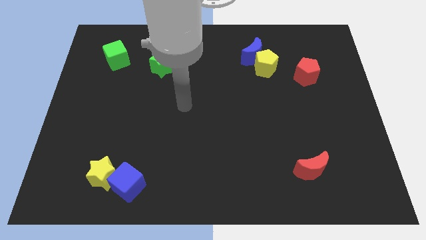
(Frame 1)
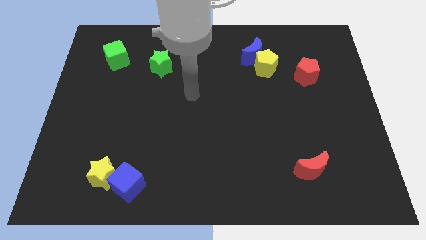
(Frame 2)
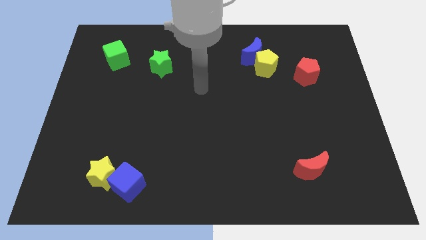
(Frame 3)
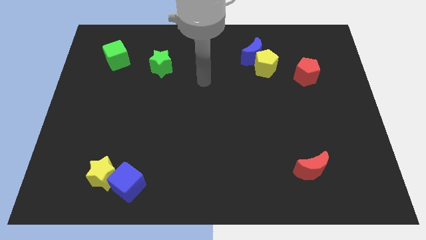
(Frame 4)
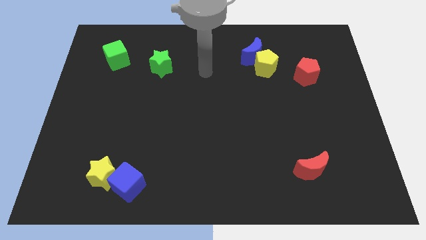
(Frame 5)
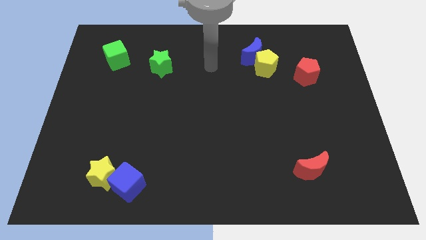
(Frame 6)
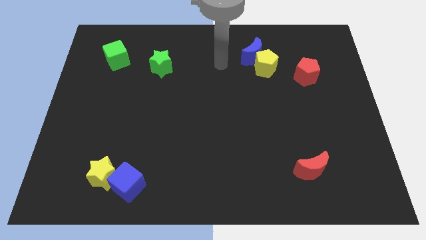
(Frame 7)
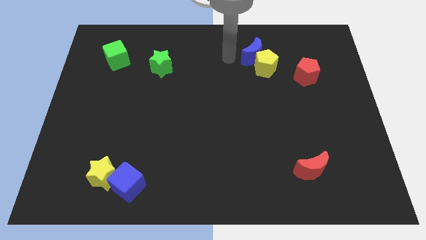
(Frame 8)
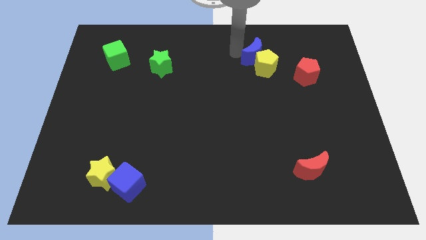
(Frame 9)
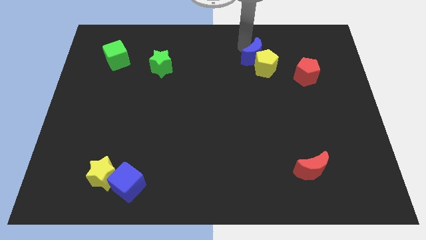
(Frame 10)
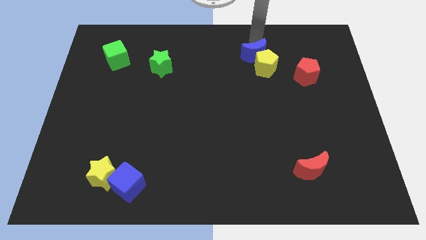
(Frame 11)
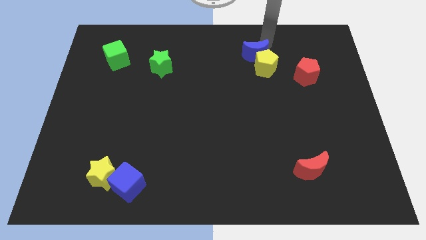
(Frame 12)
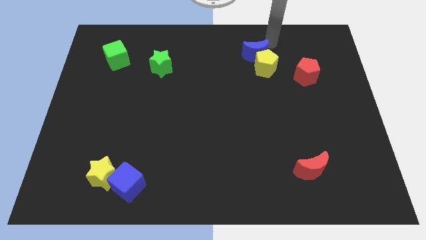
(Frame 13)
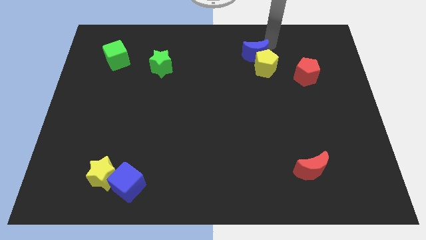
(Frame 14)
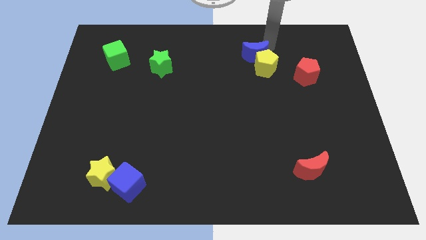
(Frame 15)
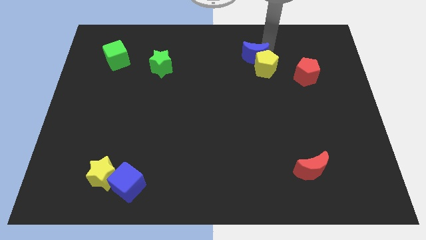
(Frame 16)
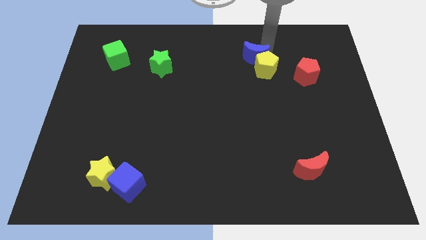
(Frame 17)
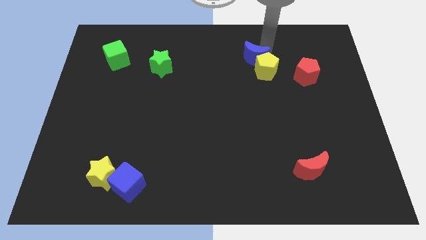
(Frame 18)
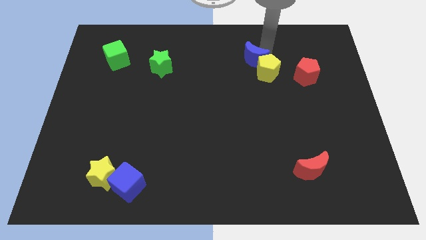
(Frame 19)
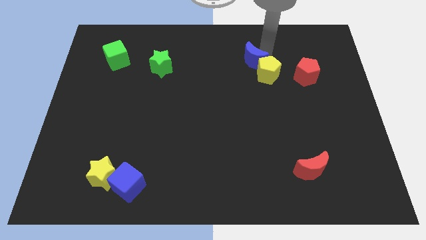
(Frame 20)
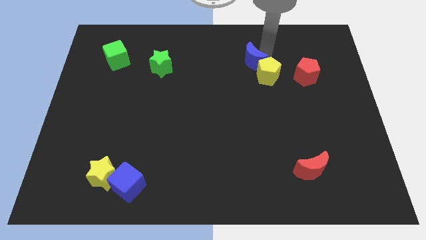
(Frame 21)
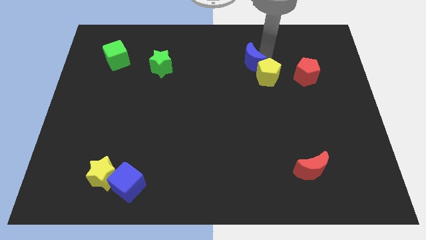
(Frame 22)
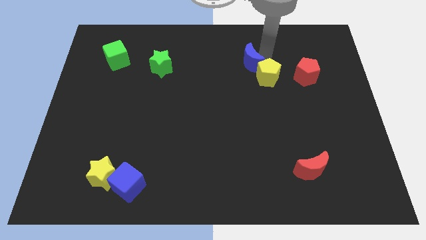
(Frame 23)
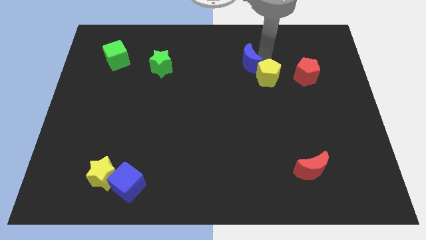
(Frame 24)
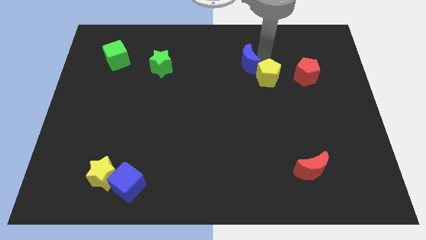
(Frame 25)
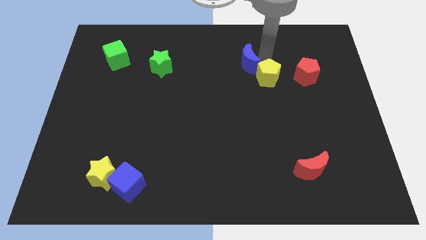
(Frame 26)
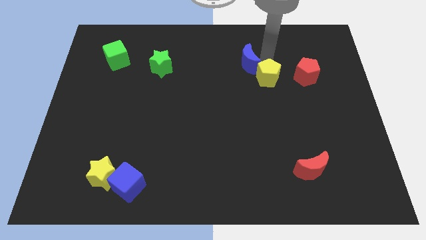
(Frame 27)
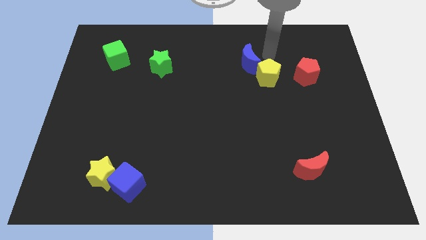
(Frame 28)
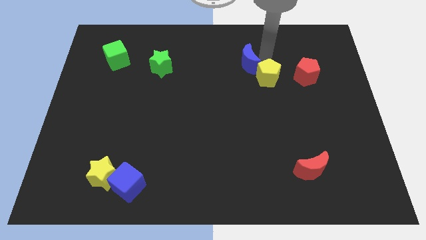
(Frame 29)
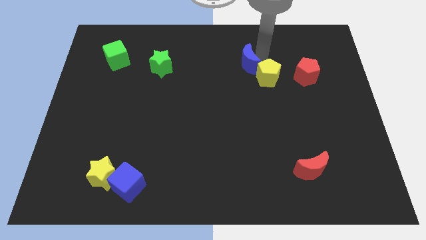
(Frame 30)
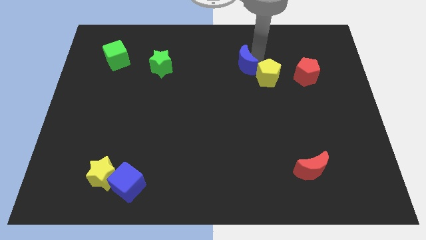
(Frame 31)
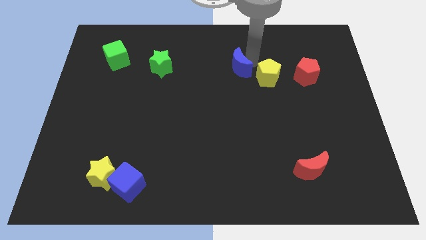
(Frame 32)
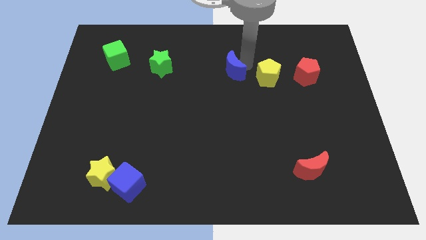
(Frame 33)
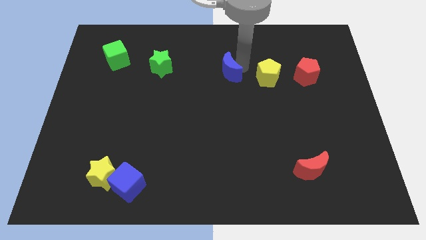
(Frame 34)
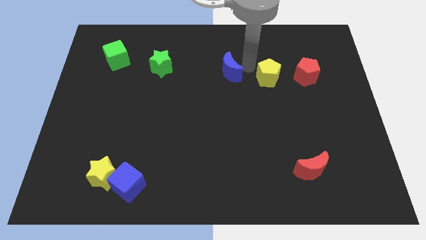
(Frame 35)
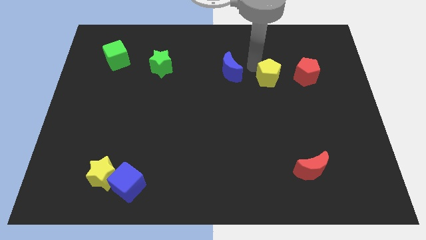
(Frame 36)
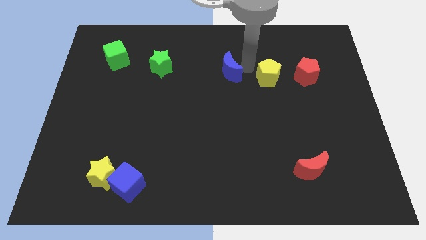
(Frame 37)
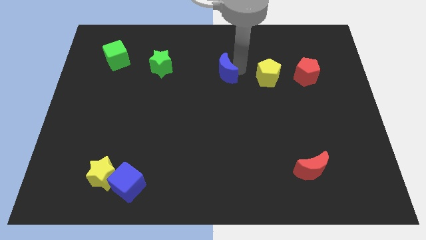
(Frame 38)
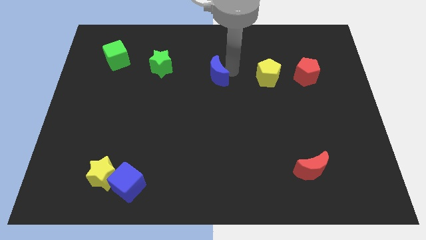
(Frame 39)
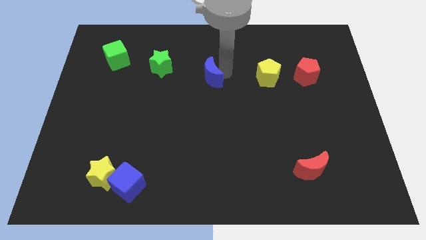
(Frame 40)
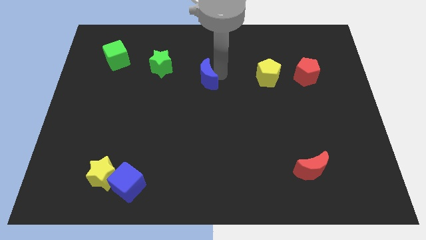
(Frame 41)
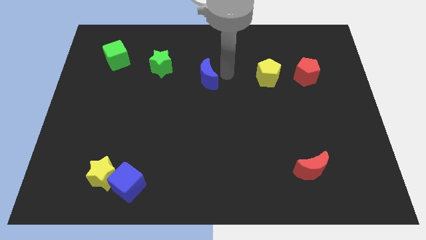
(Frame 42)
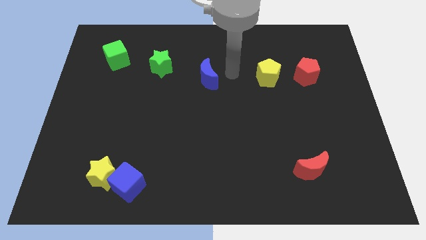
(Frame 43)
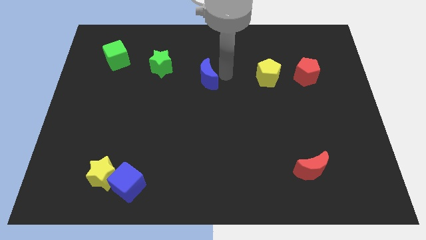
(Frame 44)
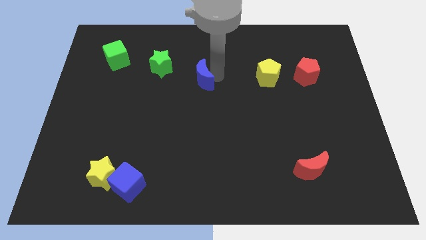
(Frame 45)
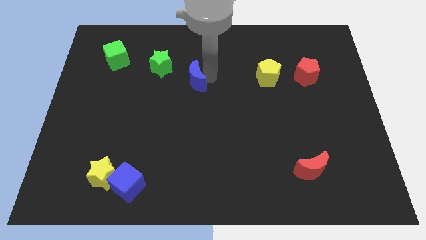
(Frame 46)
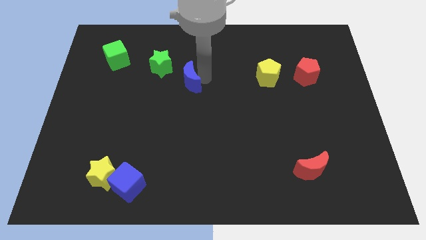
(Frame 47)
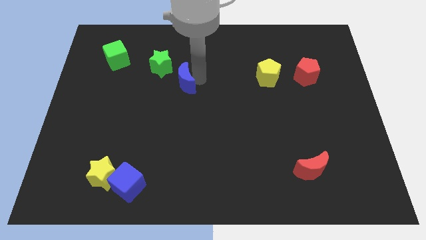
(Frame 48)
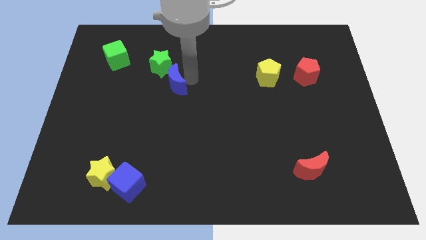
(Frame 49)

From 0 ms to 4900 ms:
slide the blue moon below the green star

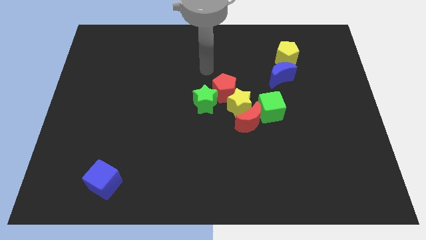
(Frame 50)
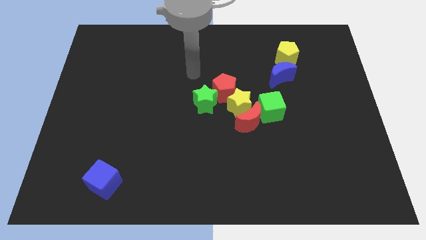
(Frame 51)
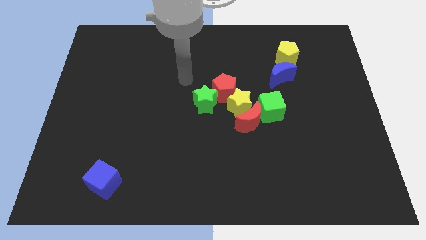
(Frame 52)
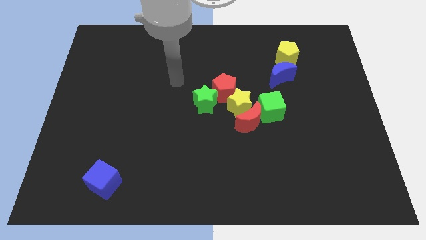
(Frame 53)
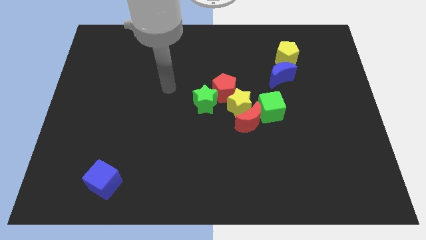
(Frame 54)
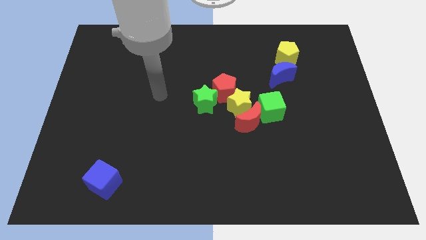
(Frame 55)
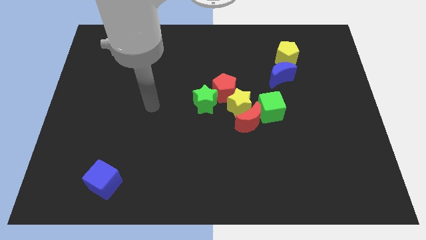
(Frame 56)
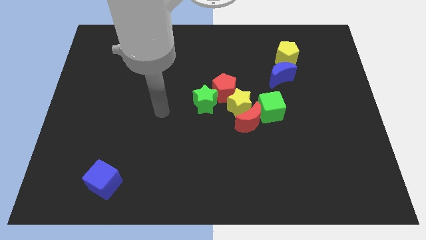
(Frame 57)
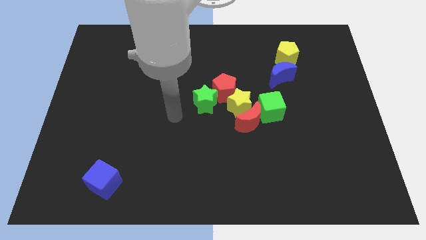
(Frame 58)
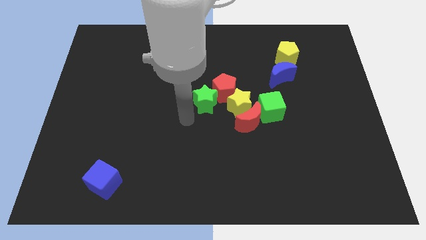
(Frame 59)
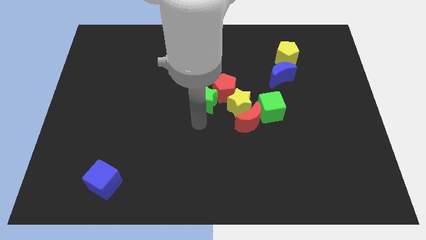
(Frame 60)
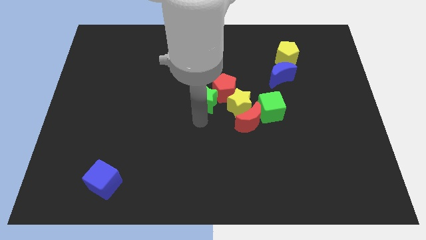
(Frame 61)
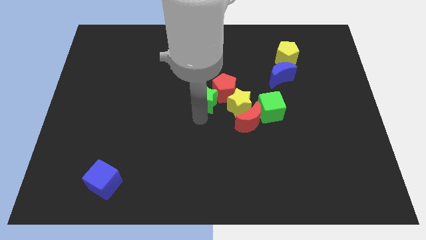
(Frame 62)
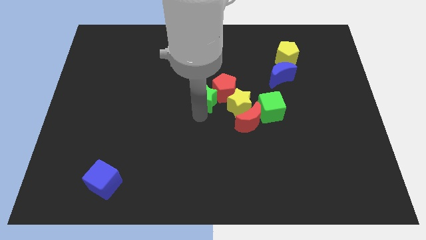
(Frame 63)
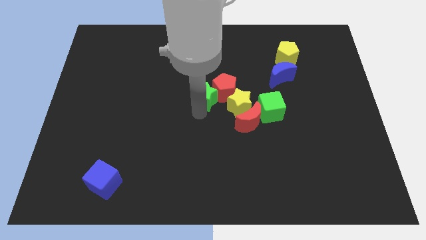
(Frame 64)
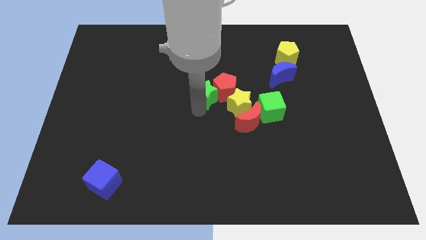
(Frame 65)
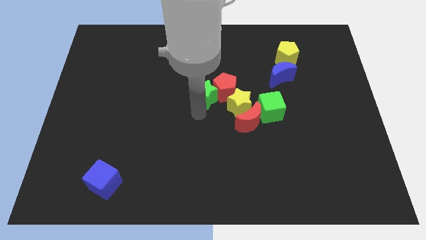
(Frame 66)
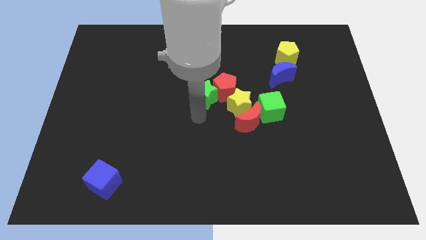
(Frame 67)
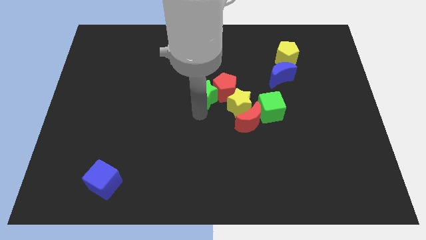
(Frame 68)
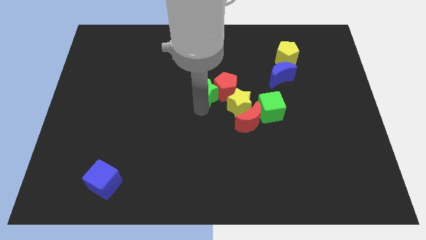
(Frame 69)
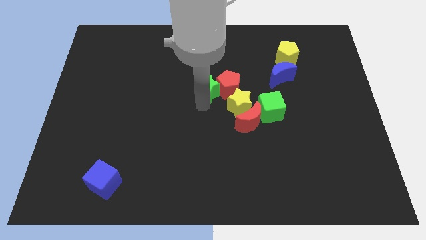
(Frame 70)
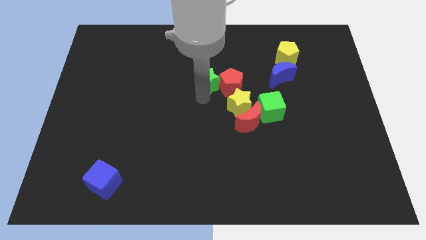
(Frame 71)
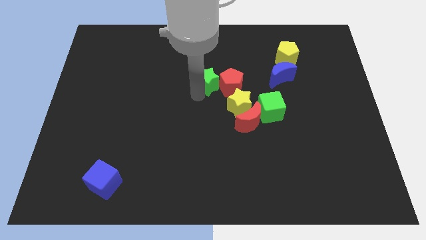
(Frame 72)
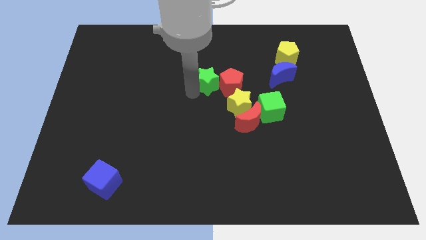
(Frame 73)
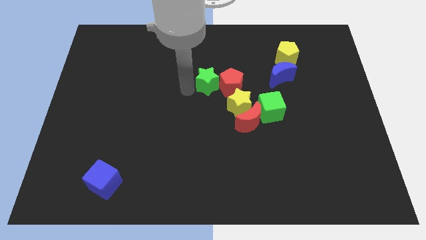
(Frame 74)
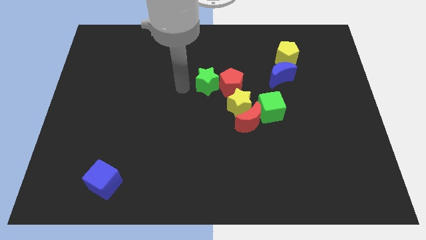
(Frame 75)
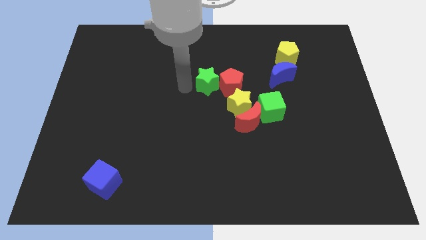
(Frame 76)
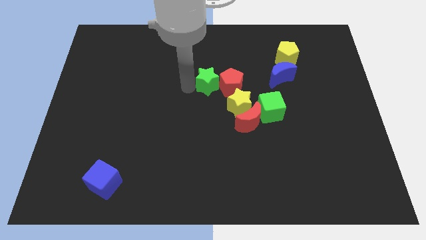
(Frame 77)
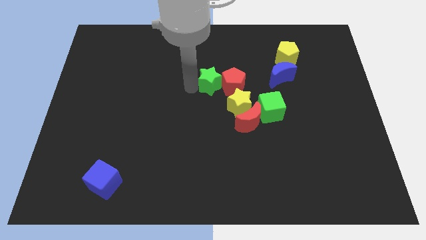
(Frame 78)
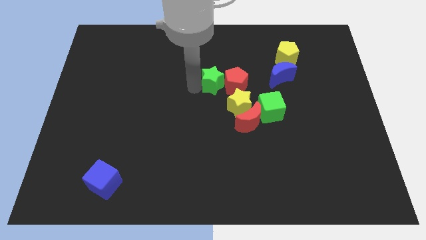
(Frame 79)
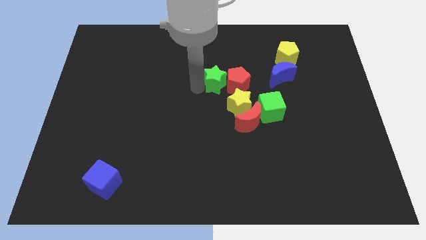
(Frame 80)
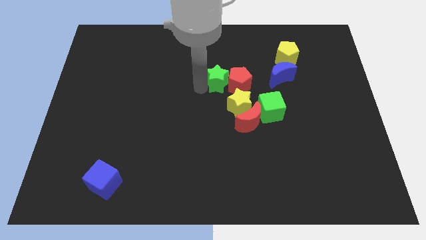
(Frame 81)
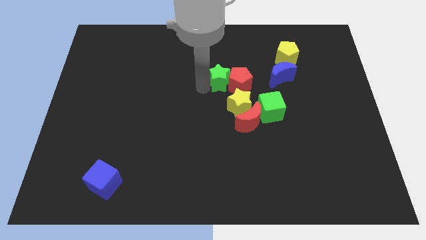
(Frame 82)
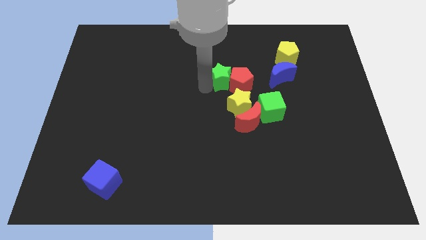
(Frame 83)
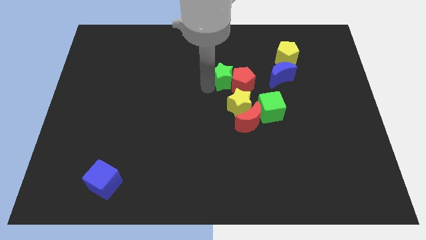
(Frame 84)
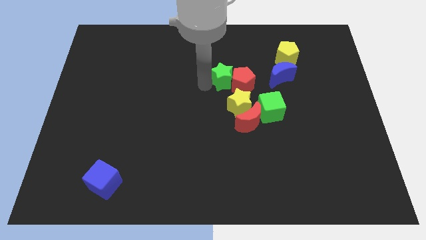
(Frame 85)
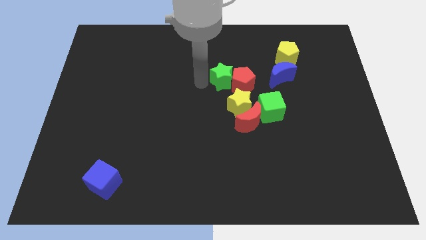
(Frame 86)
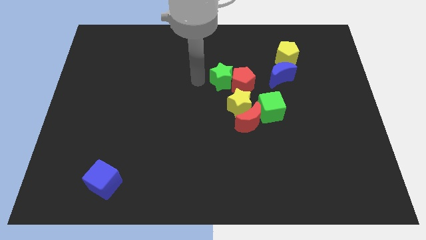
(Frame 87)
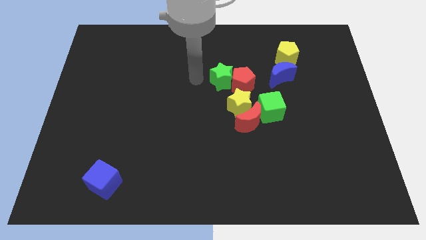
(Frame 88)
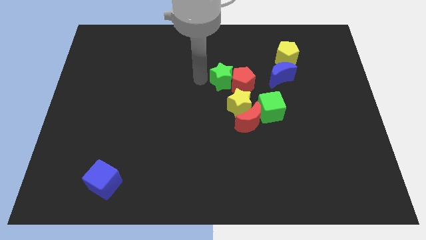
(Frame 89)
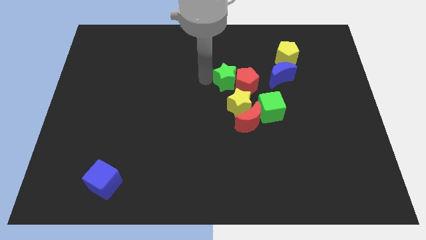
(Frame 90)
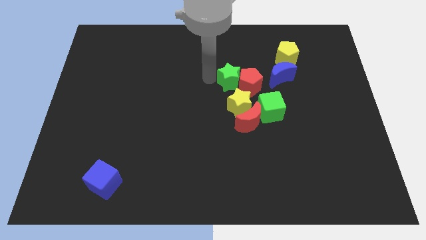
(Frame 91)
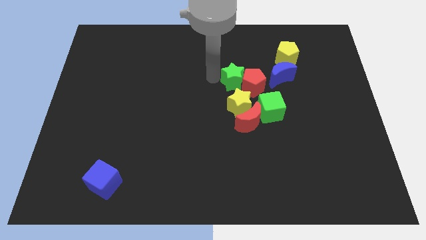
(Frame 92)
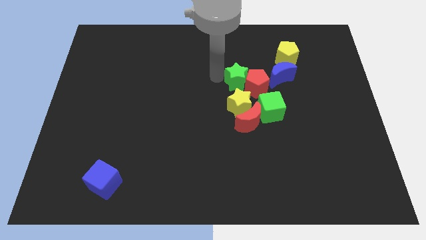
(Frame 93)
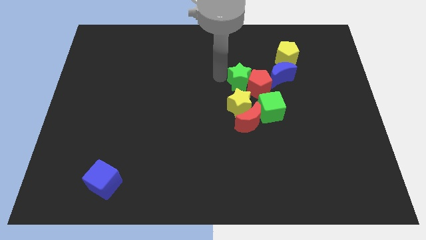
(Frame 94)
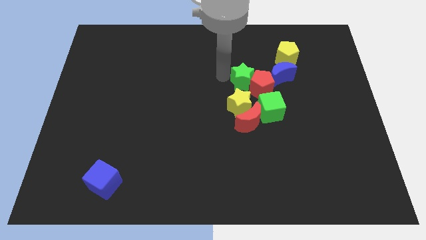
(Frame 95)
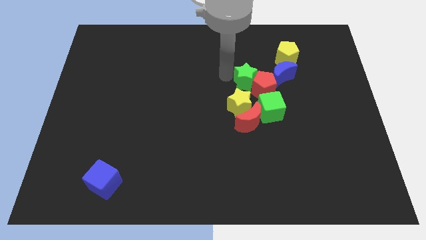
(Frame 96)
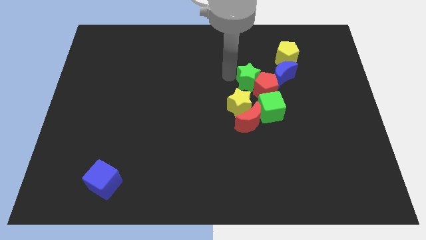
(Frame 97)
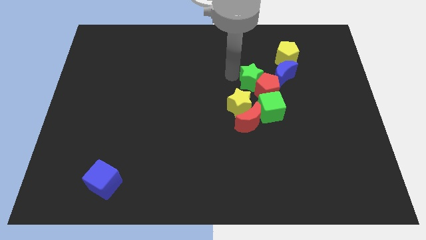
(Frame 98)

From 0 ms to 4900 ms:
slide the green star to the bottom left side of the blue moon
